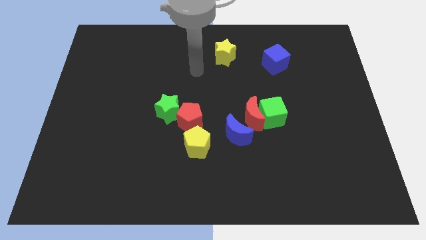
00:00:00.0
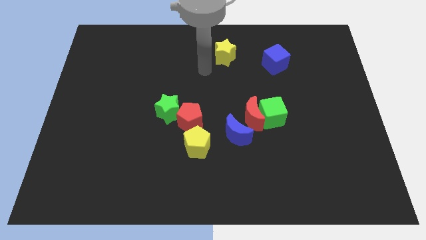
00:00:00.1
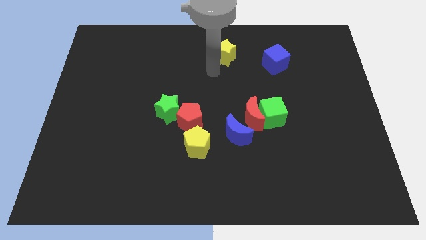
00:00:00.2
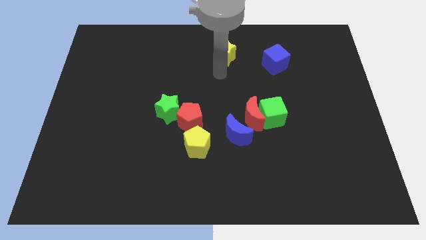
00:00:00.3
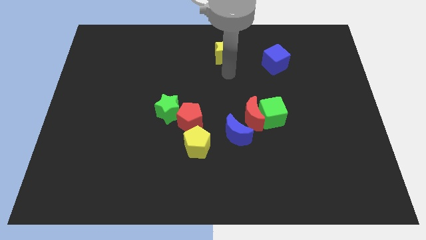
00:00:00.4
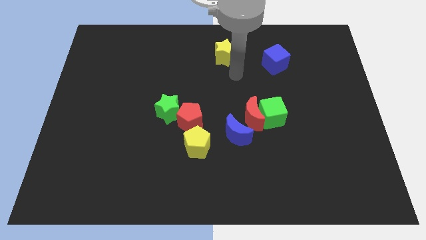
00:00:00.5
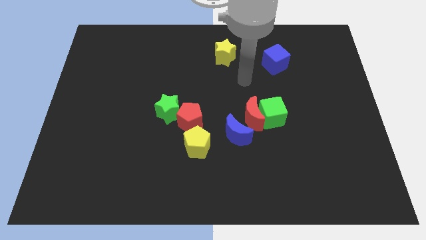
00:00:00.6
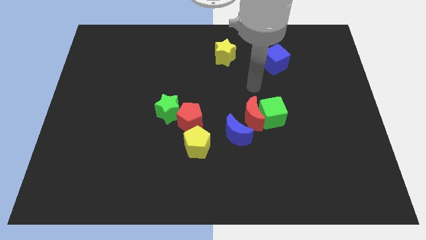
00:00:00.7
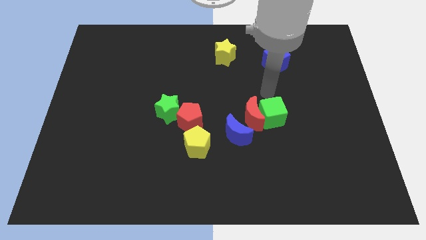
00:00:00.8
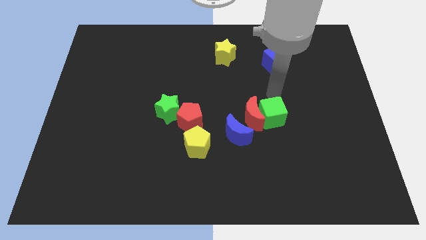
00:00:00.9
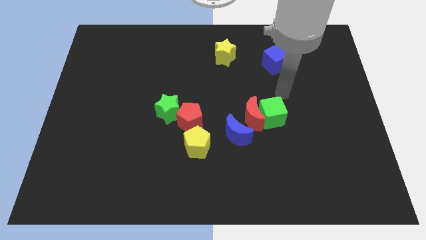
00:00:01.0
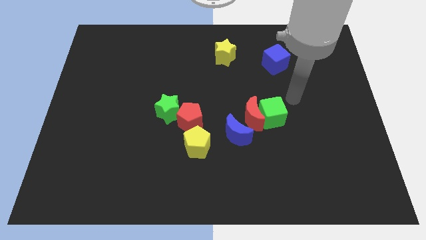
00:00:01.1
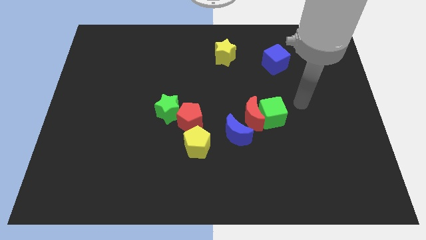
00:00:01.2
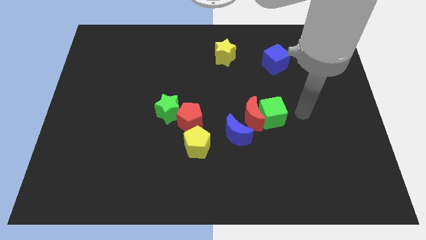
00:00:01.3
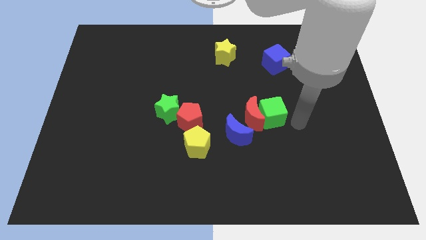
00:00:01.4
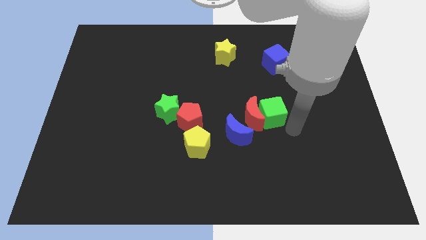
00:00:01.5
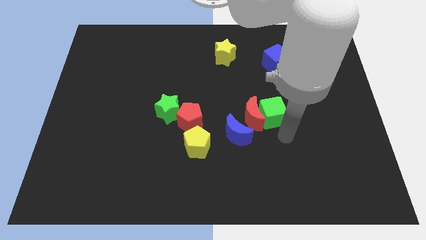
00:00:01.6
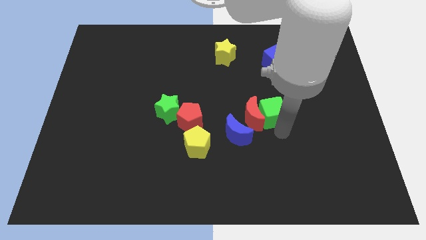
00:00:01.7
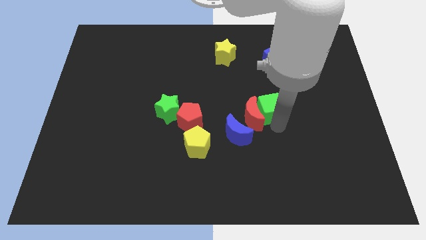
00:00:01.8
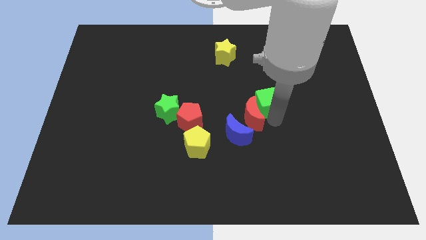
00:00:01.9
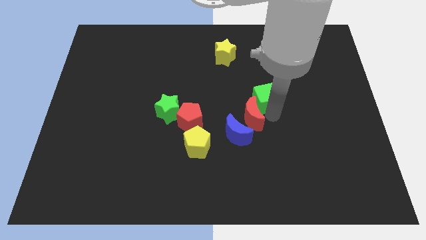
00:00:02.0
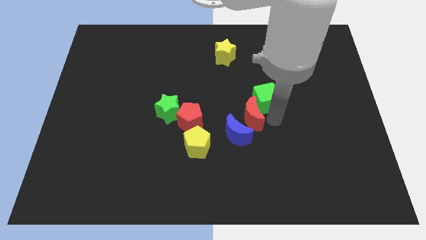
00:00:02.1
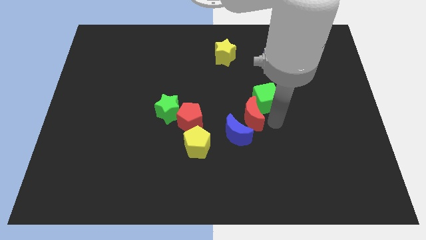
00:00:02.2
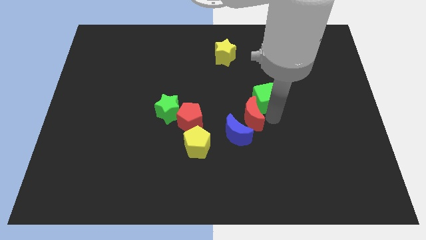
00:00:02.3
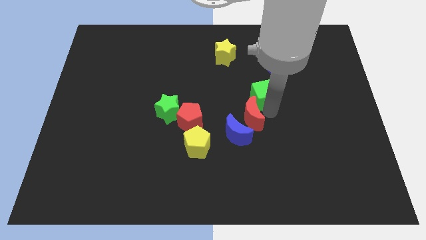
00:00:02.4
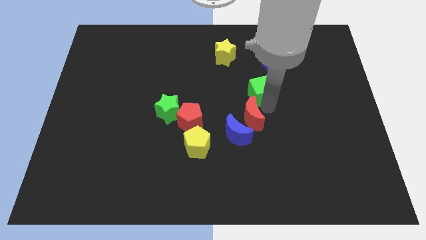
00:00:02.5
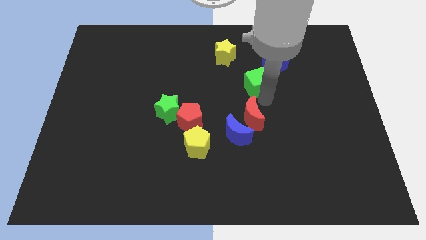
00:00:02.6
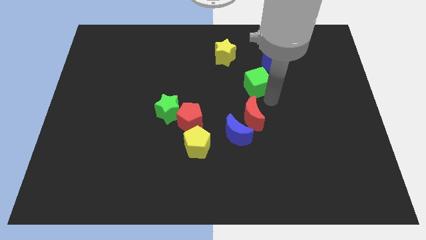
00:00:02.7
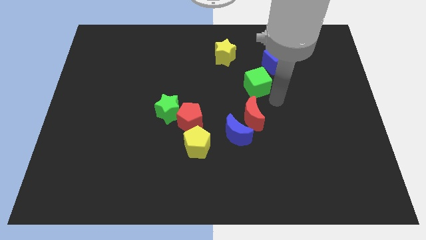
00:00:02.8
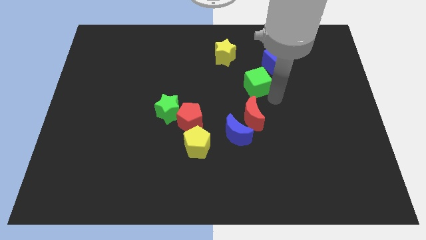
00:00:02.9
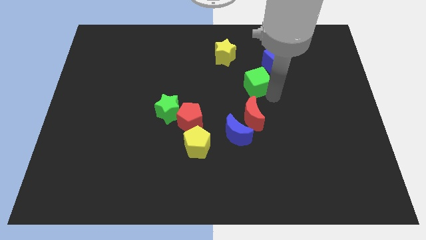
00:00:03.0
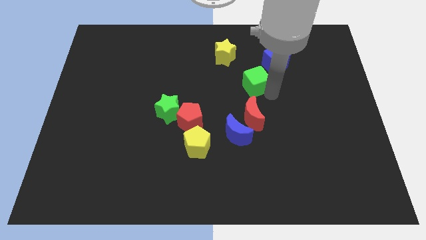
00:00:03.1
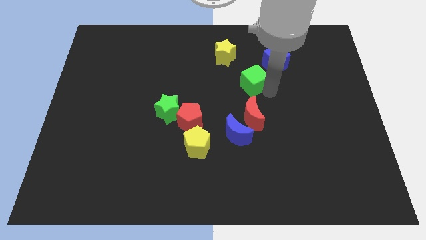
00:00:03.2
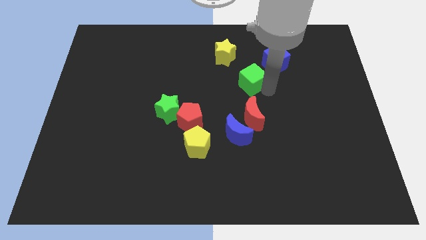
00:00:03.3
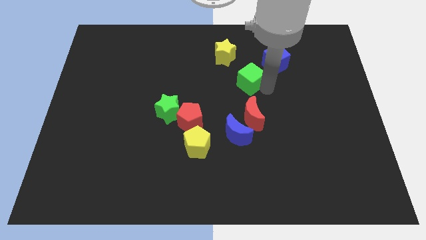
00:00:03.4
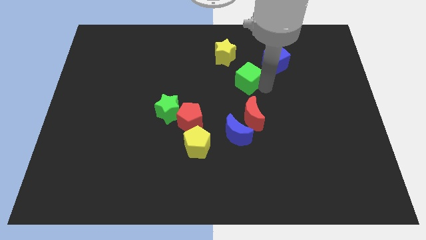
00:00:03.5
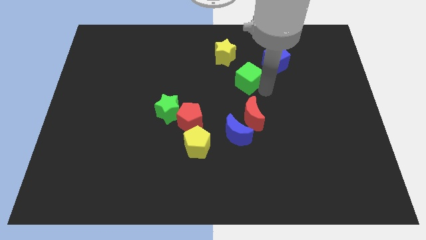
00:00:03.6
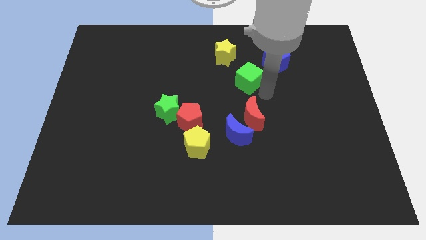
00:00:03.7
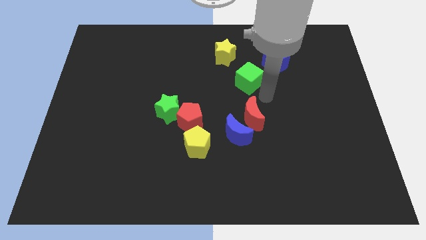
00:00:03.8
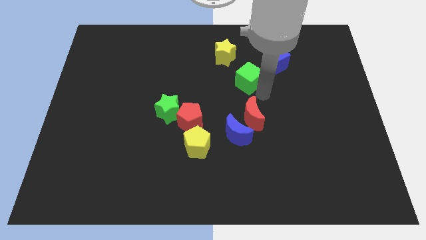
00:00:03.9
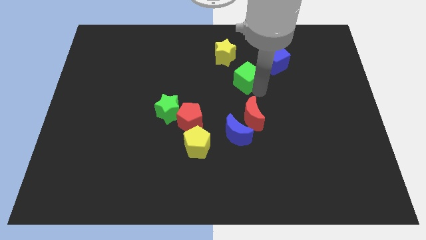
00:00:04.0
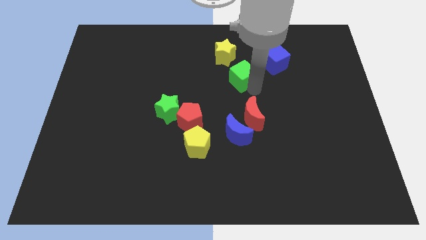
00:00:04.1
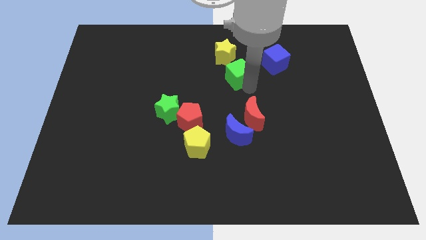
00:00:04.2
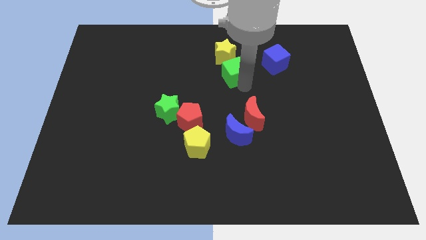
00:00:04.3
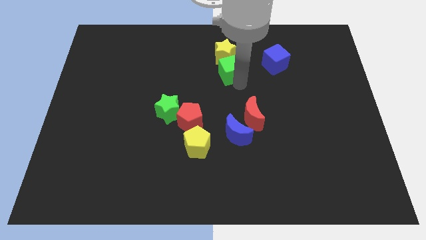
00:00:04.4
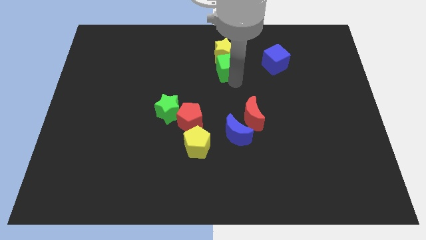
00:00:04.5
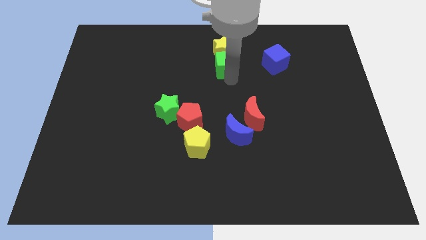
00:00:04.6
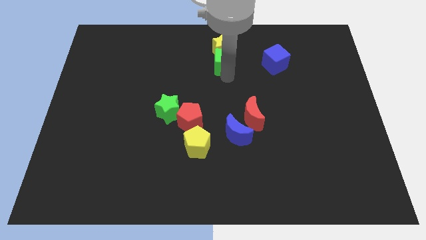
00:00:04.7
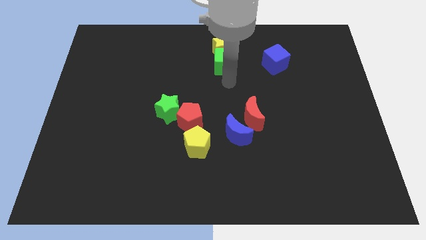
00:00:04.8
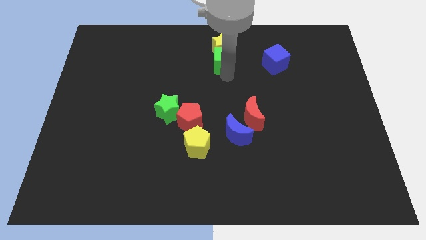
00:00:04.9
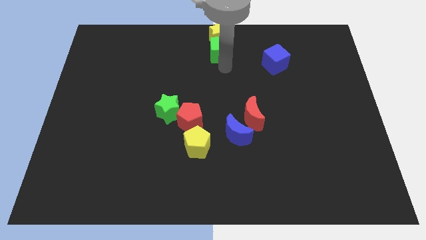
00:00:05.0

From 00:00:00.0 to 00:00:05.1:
push the green cube to the top side

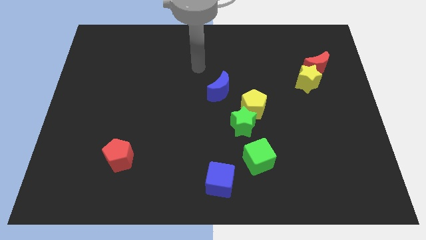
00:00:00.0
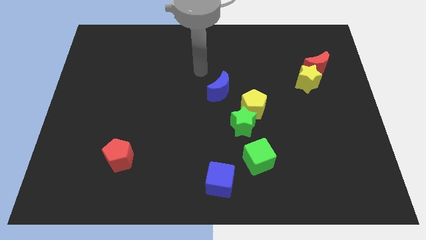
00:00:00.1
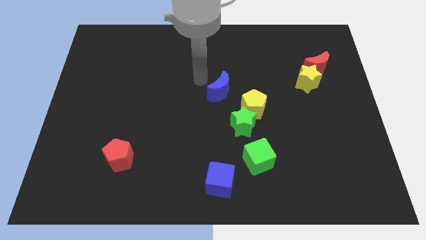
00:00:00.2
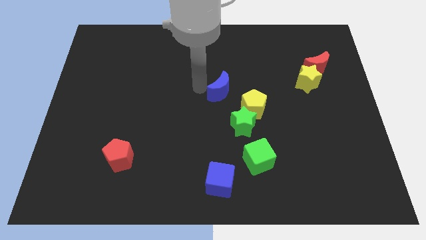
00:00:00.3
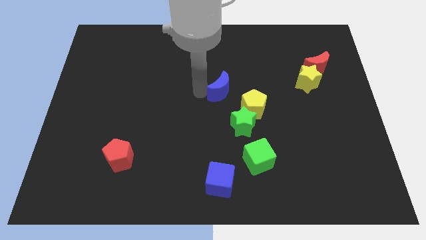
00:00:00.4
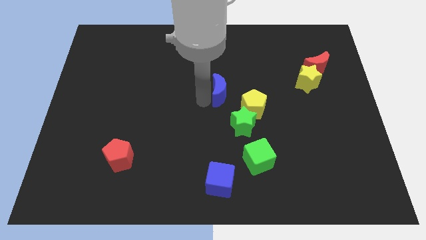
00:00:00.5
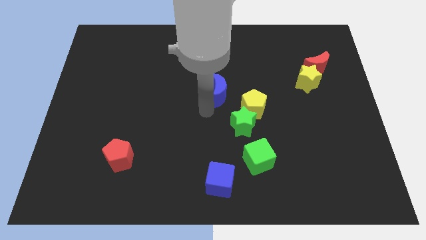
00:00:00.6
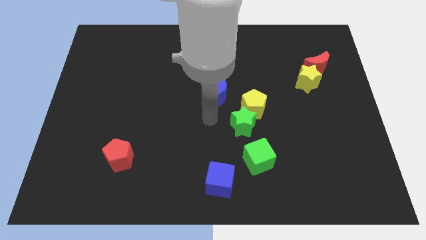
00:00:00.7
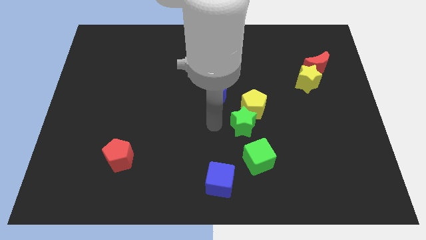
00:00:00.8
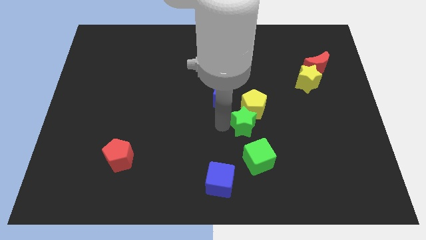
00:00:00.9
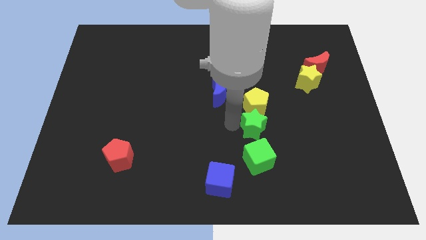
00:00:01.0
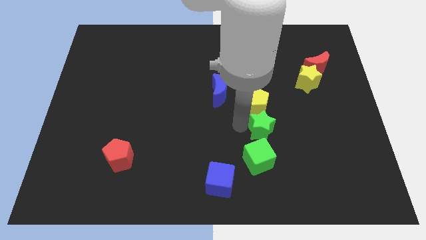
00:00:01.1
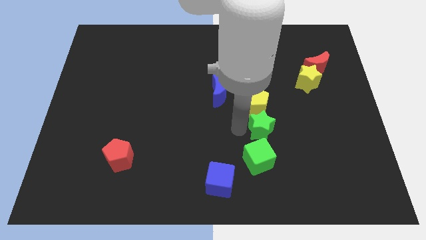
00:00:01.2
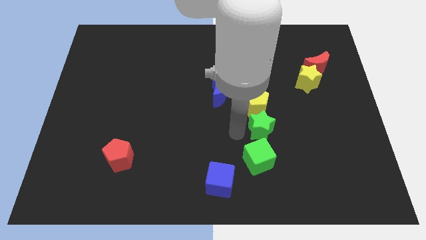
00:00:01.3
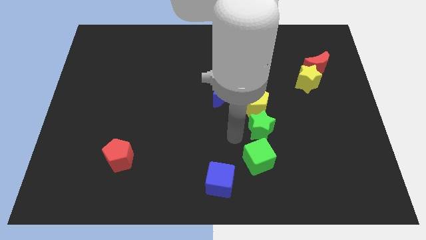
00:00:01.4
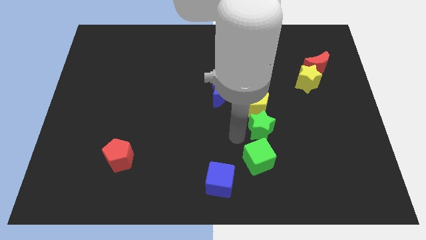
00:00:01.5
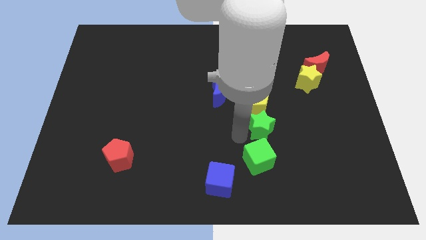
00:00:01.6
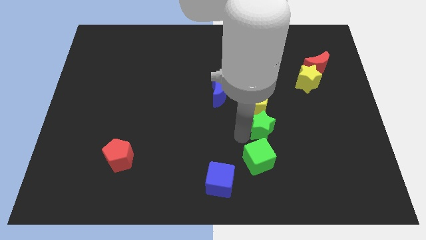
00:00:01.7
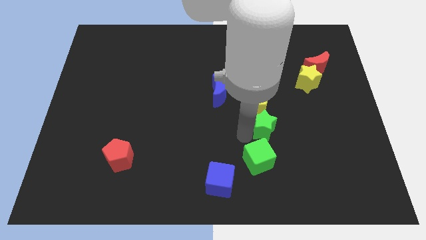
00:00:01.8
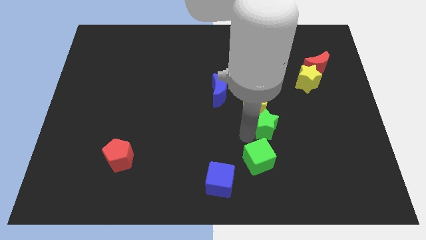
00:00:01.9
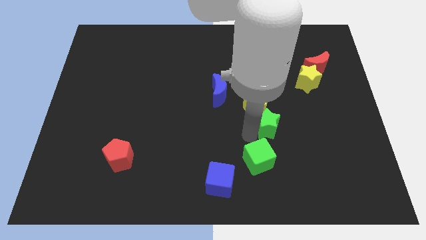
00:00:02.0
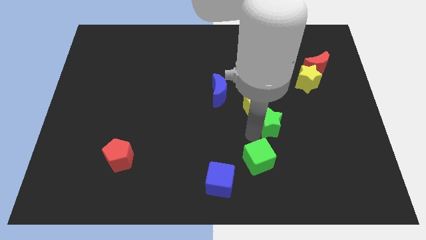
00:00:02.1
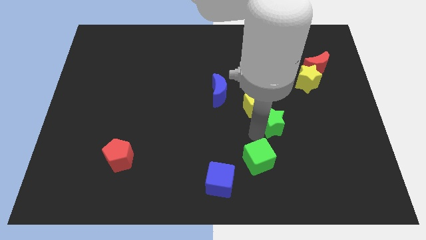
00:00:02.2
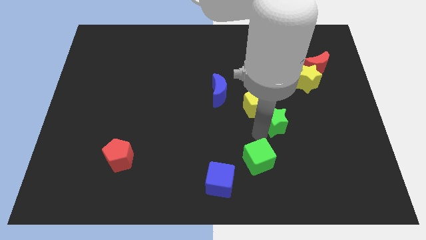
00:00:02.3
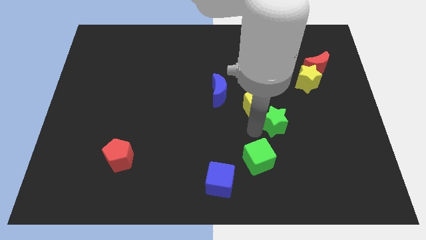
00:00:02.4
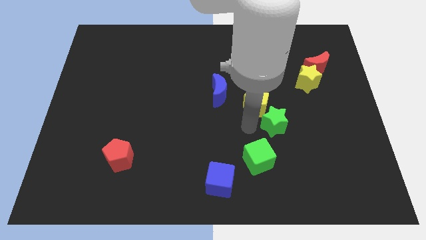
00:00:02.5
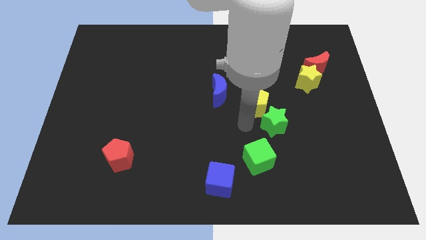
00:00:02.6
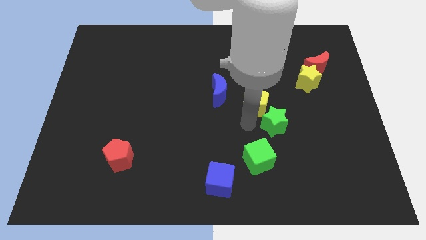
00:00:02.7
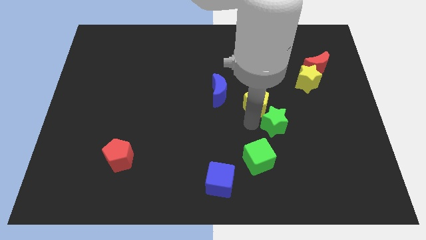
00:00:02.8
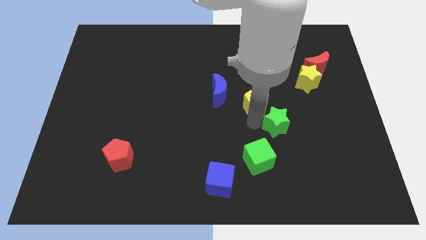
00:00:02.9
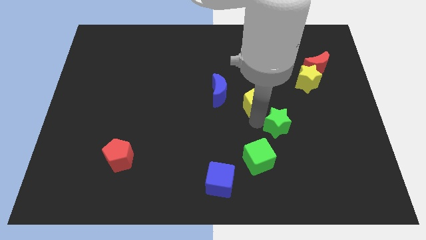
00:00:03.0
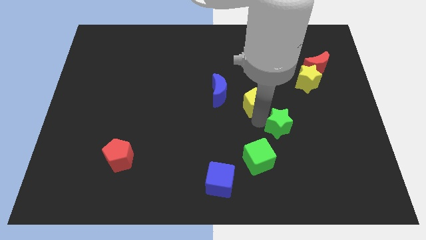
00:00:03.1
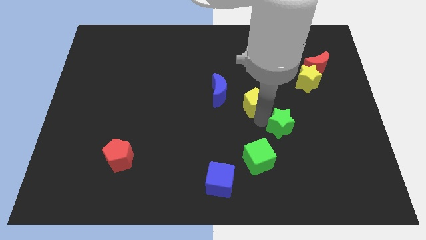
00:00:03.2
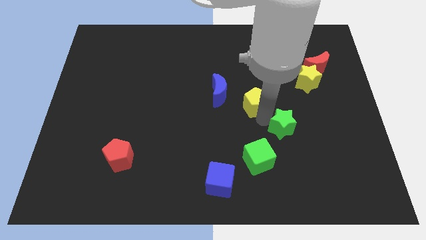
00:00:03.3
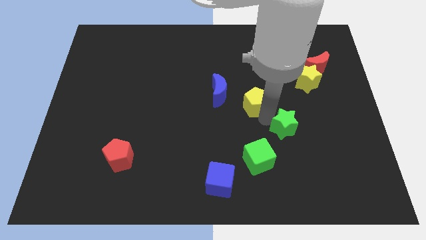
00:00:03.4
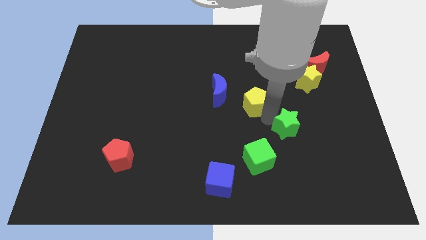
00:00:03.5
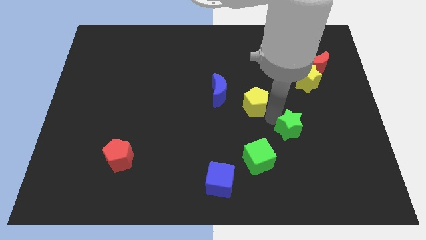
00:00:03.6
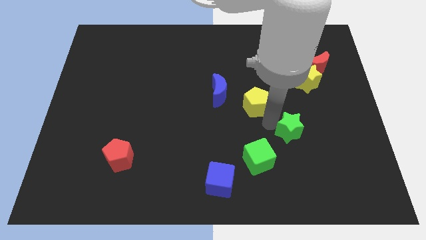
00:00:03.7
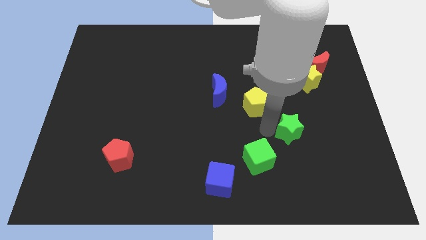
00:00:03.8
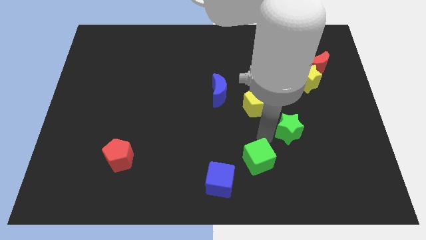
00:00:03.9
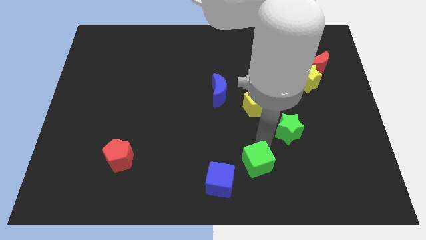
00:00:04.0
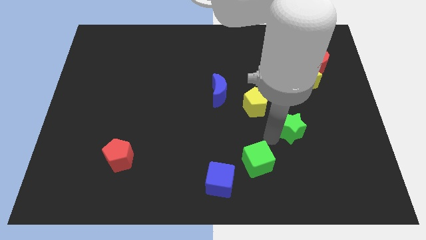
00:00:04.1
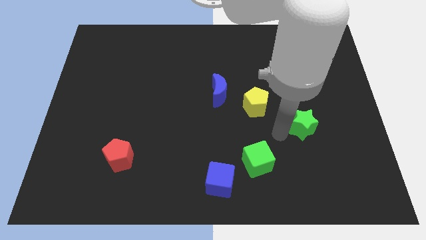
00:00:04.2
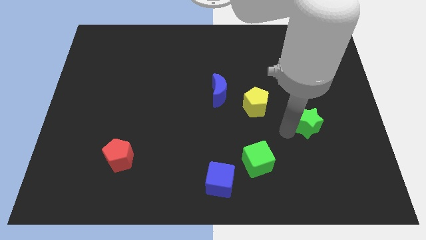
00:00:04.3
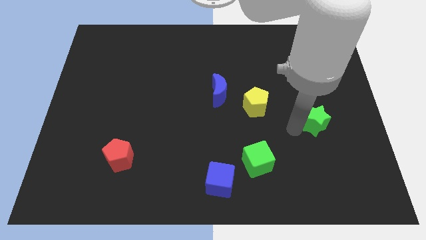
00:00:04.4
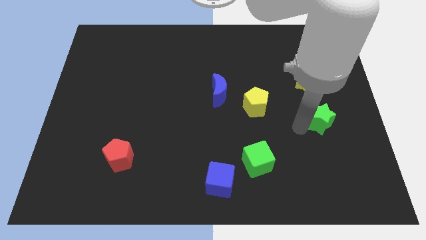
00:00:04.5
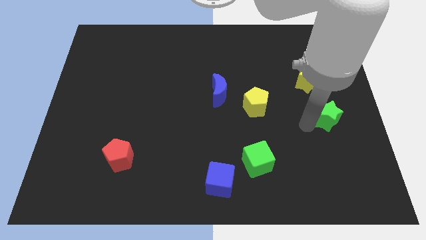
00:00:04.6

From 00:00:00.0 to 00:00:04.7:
slide the green star to the right side of the board
